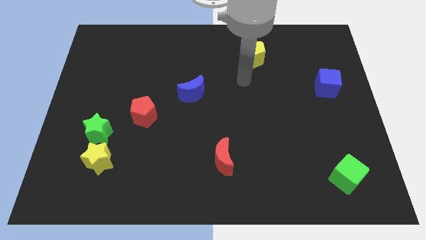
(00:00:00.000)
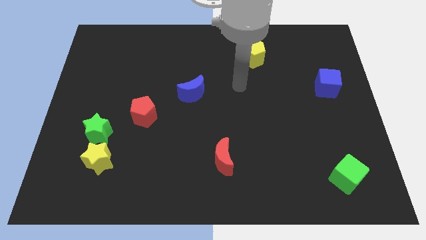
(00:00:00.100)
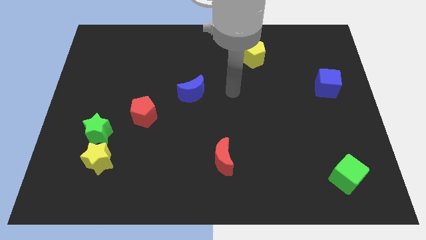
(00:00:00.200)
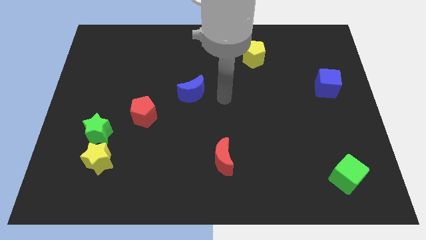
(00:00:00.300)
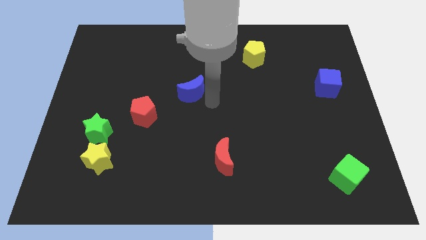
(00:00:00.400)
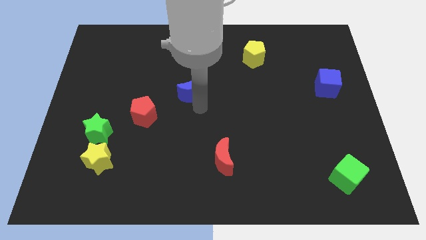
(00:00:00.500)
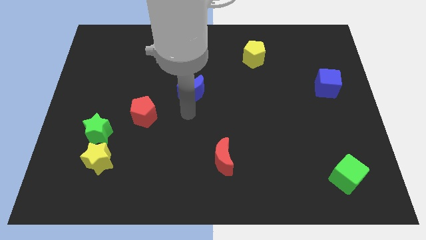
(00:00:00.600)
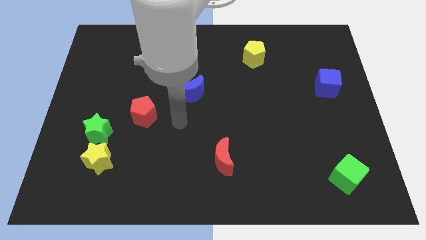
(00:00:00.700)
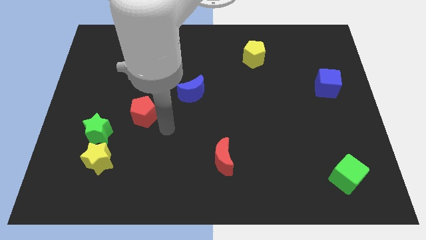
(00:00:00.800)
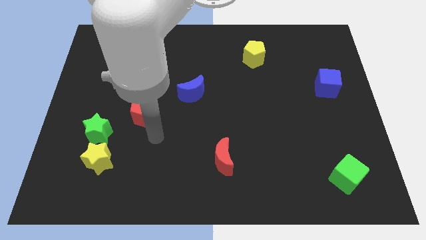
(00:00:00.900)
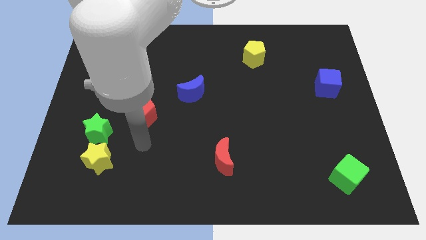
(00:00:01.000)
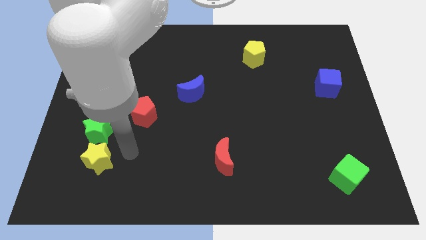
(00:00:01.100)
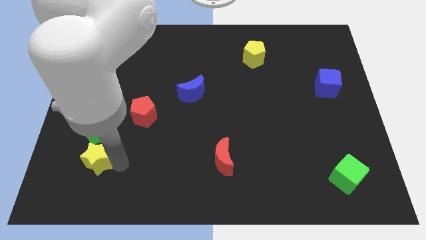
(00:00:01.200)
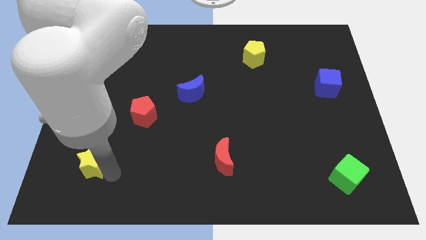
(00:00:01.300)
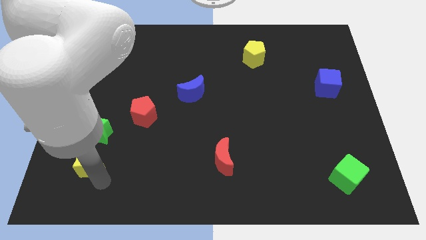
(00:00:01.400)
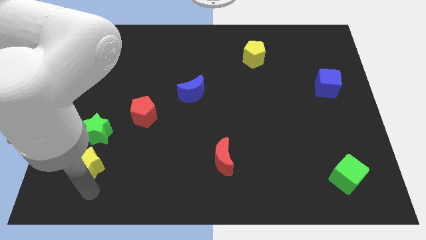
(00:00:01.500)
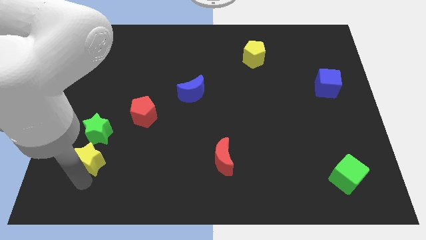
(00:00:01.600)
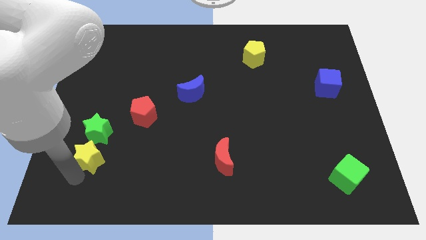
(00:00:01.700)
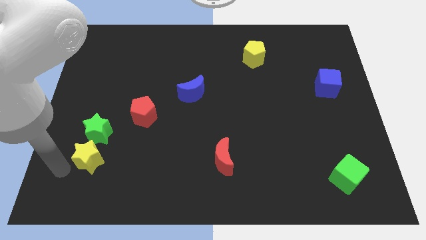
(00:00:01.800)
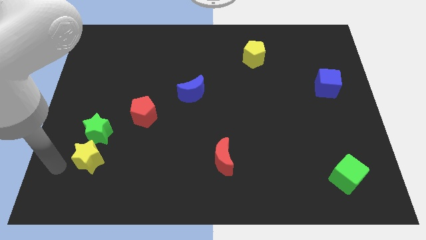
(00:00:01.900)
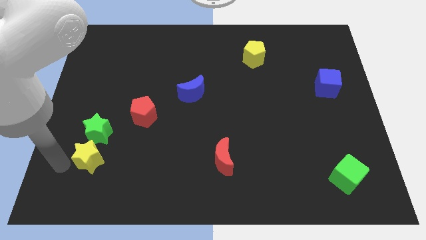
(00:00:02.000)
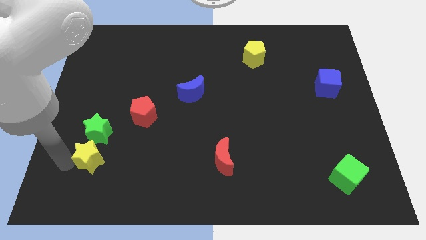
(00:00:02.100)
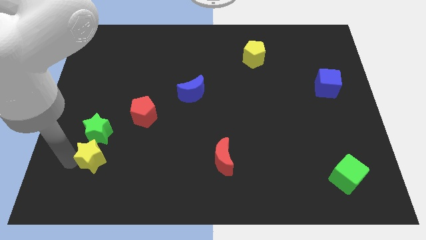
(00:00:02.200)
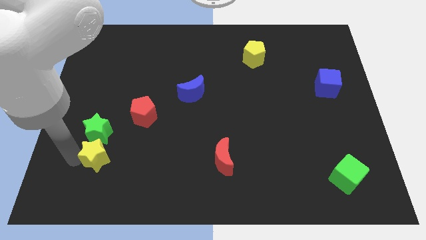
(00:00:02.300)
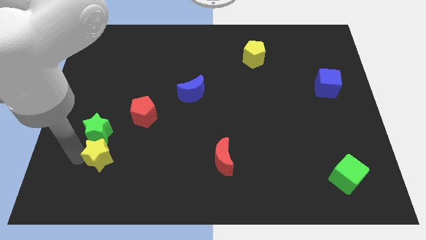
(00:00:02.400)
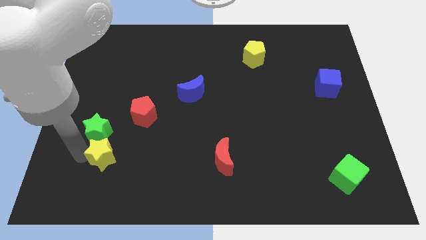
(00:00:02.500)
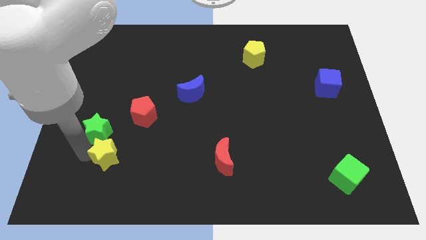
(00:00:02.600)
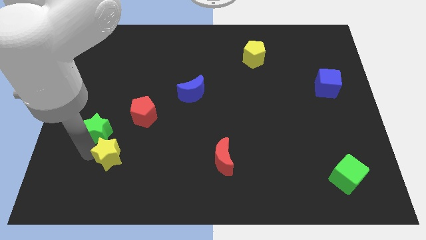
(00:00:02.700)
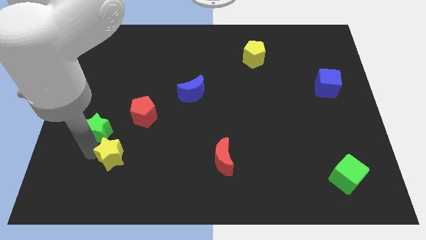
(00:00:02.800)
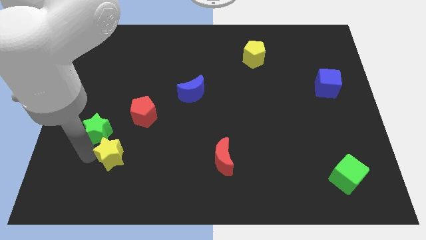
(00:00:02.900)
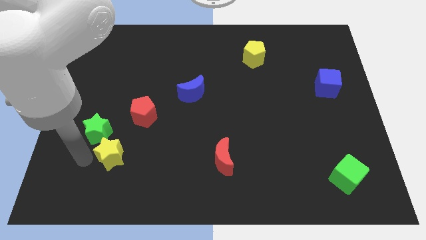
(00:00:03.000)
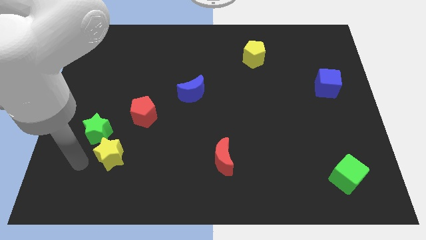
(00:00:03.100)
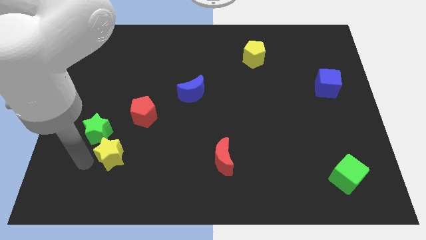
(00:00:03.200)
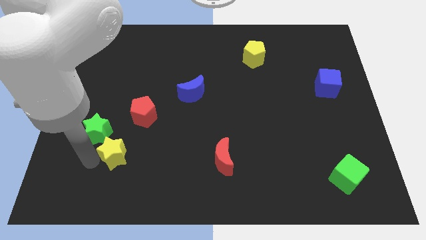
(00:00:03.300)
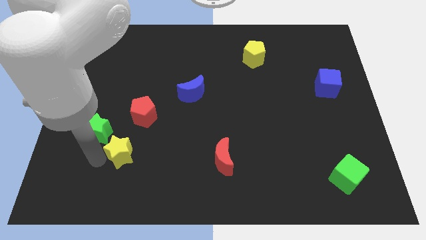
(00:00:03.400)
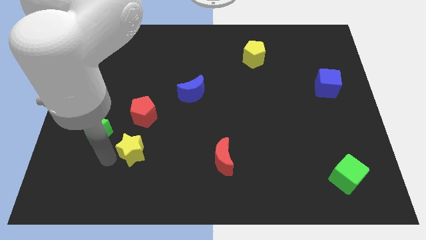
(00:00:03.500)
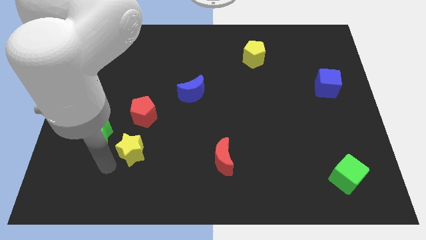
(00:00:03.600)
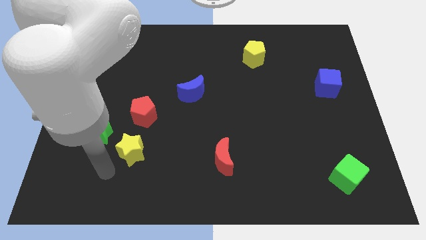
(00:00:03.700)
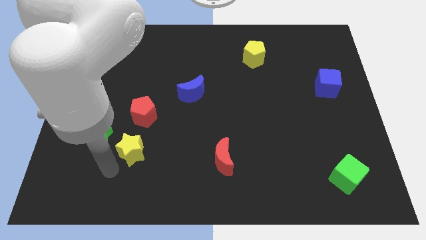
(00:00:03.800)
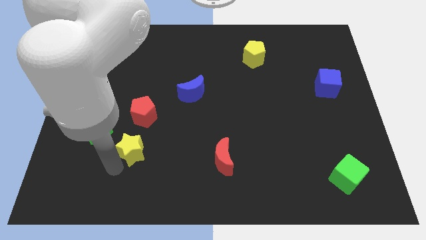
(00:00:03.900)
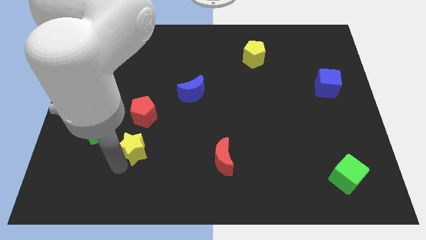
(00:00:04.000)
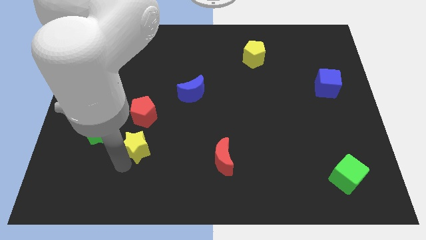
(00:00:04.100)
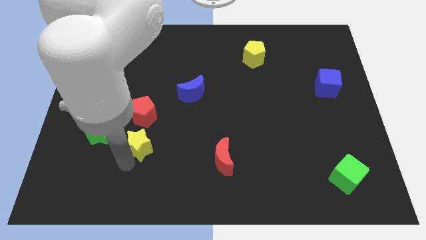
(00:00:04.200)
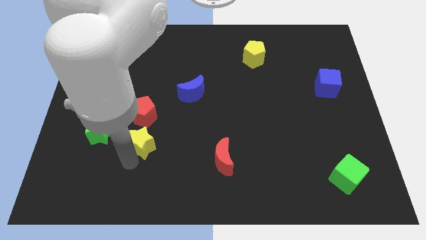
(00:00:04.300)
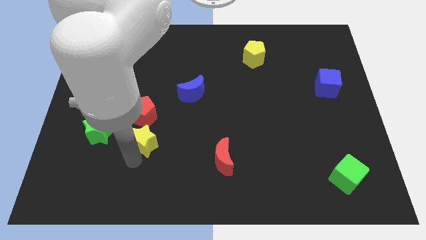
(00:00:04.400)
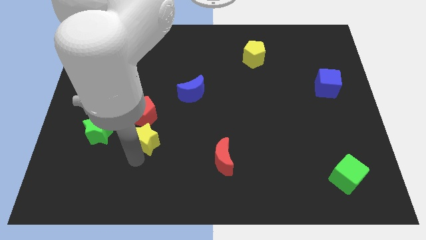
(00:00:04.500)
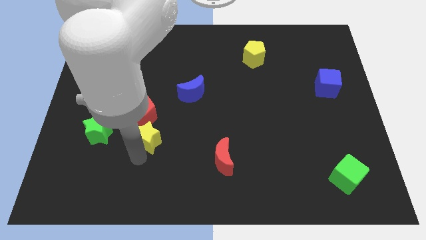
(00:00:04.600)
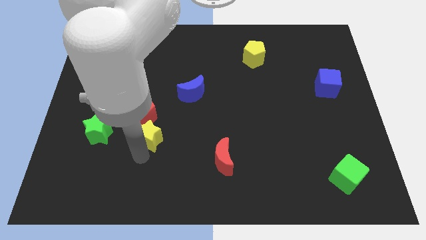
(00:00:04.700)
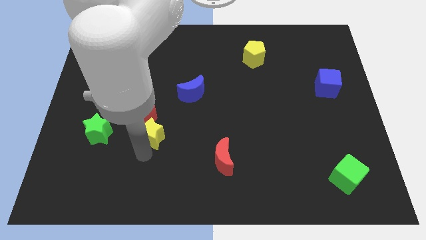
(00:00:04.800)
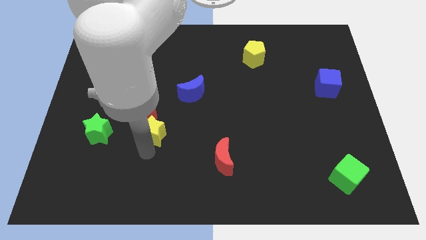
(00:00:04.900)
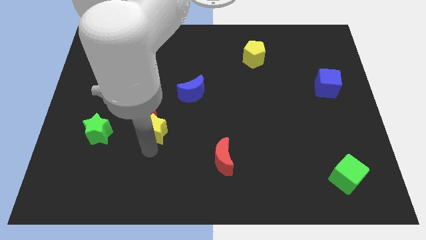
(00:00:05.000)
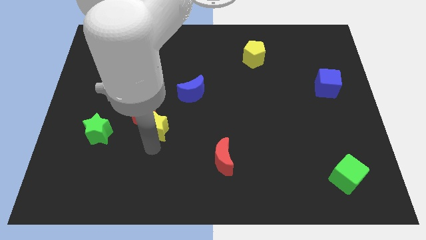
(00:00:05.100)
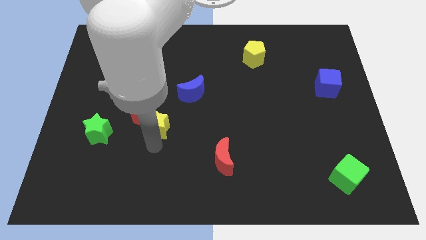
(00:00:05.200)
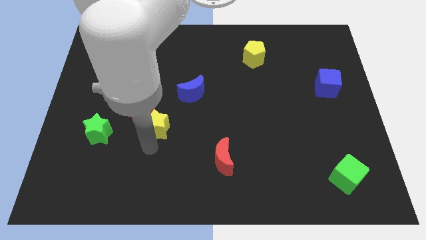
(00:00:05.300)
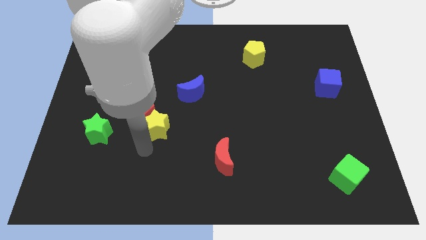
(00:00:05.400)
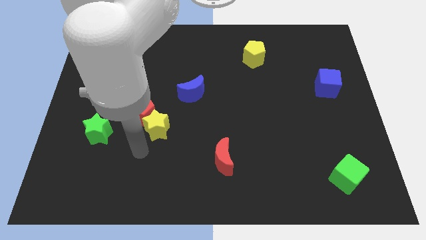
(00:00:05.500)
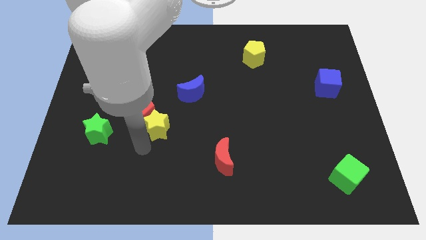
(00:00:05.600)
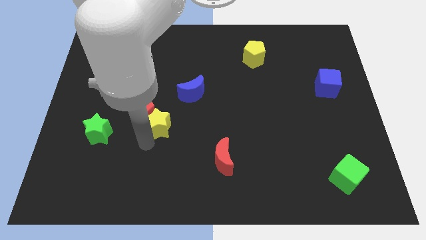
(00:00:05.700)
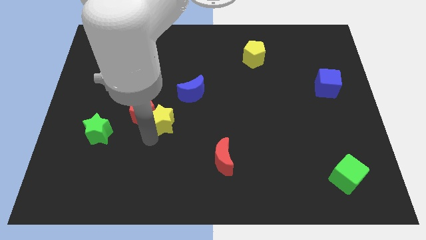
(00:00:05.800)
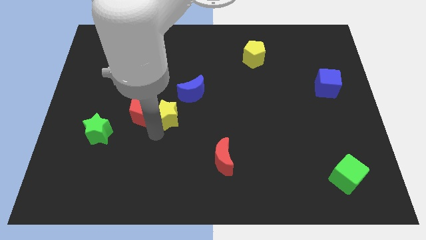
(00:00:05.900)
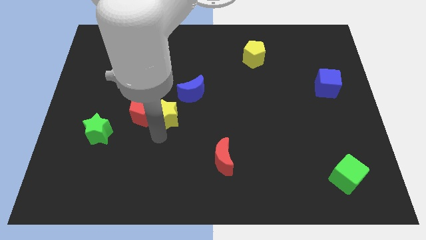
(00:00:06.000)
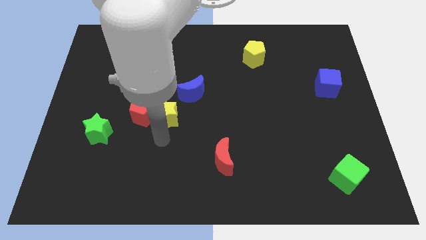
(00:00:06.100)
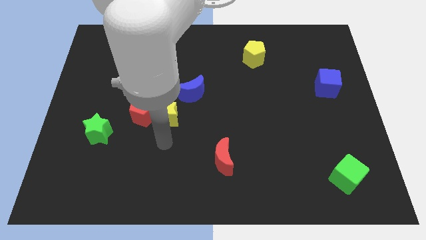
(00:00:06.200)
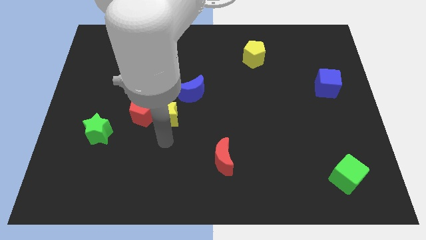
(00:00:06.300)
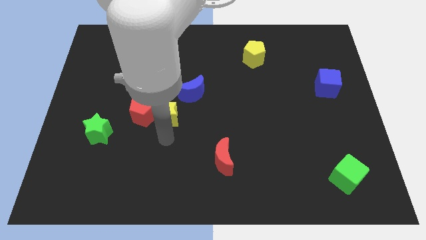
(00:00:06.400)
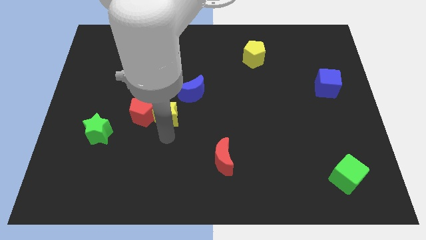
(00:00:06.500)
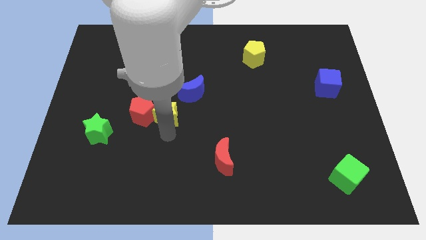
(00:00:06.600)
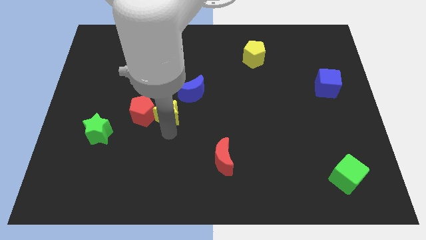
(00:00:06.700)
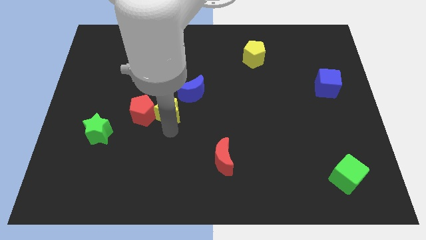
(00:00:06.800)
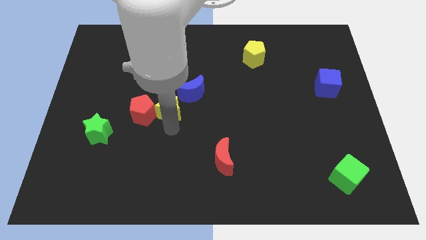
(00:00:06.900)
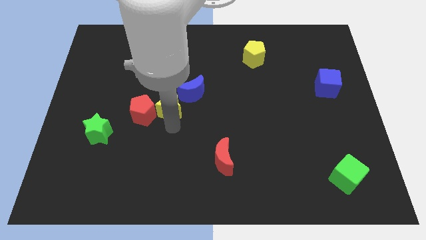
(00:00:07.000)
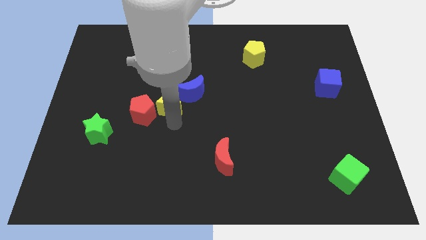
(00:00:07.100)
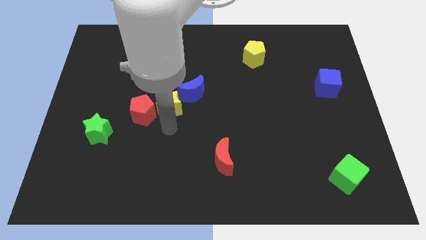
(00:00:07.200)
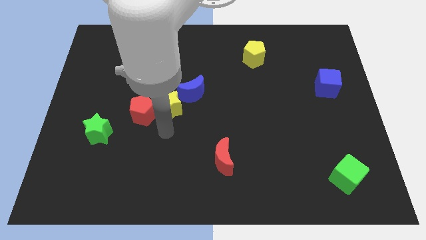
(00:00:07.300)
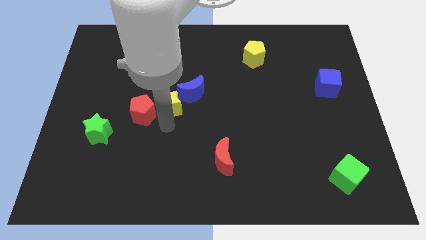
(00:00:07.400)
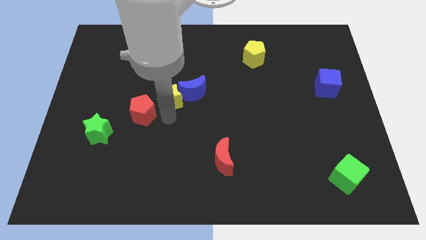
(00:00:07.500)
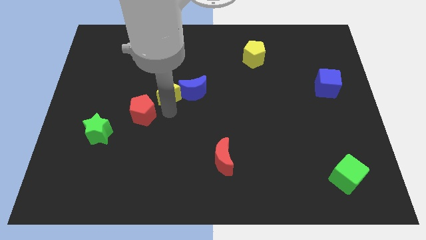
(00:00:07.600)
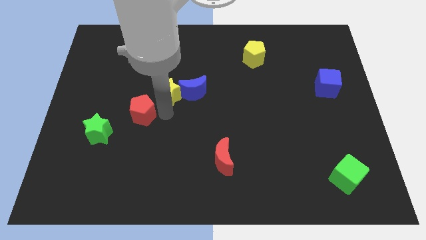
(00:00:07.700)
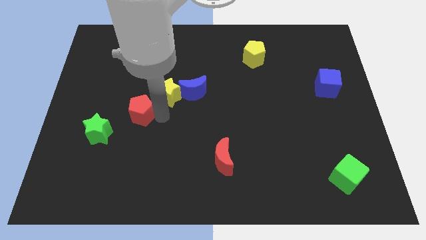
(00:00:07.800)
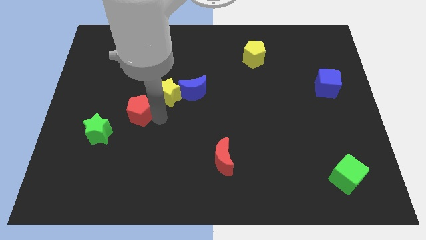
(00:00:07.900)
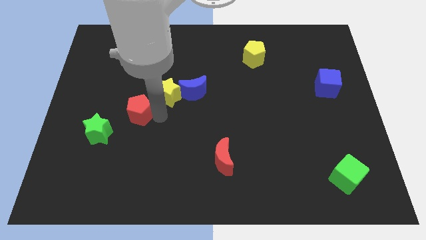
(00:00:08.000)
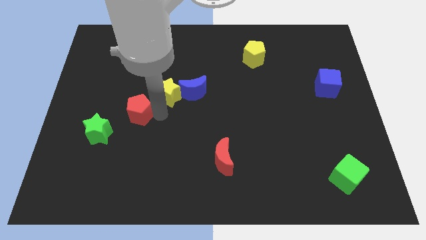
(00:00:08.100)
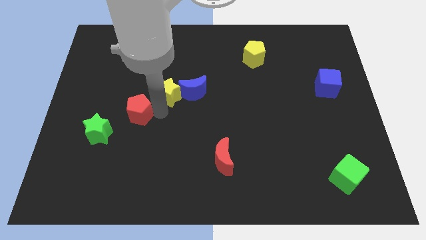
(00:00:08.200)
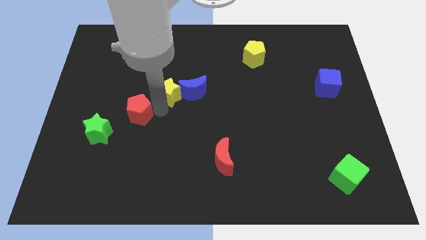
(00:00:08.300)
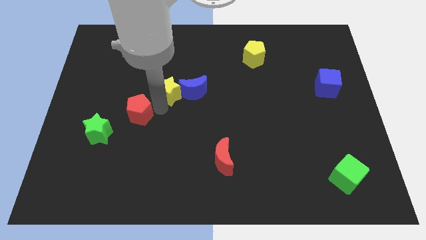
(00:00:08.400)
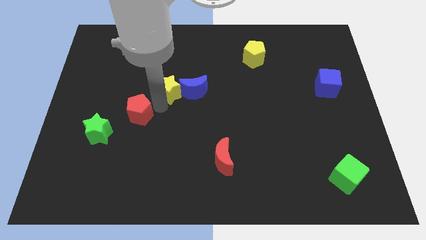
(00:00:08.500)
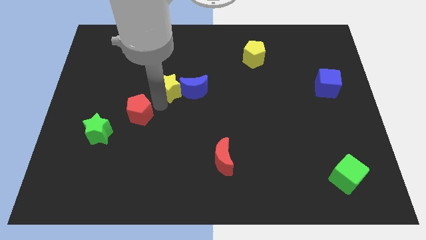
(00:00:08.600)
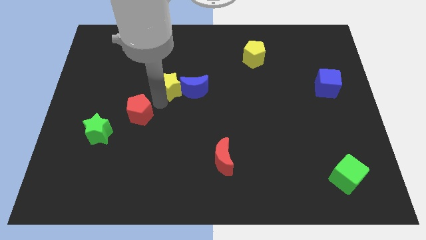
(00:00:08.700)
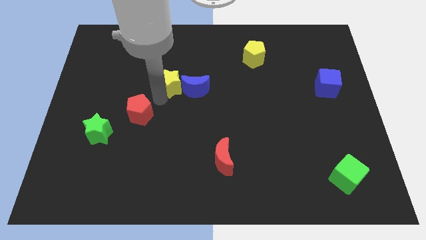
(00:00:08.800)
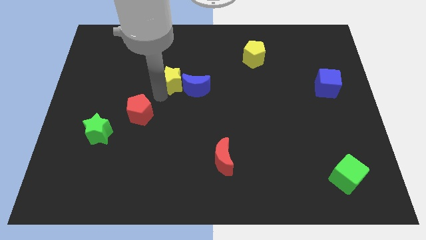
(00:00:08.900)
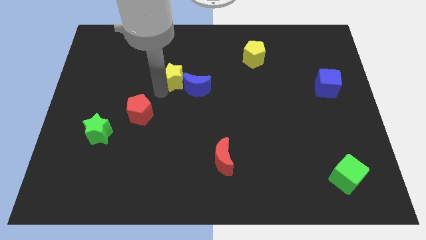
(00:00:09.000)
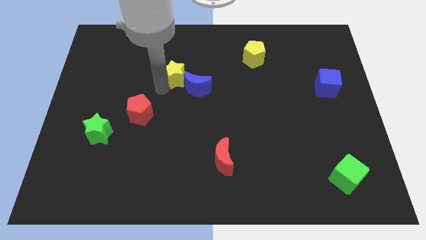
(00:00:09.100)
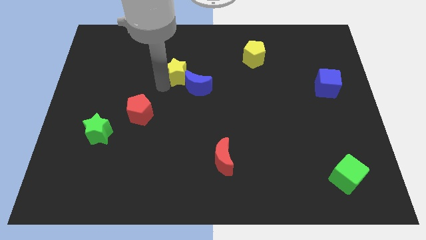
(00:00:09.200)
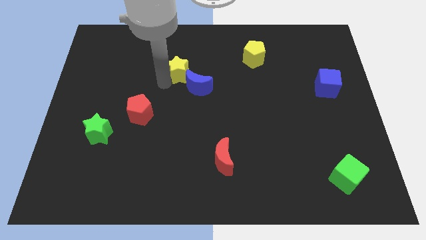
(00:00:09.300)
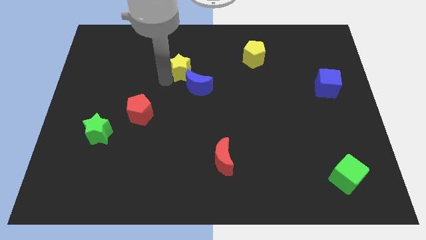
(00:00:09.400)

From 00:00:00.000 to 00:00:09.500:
move the yellow star to the top of the blue moon
